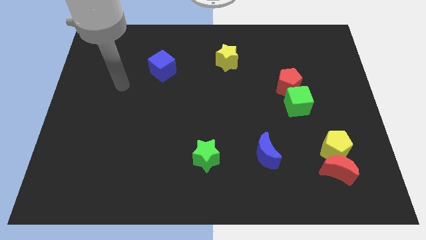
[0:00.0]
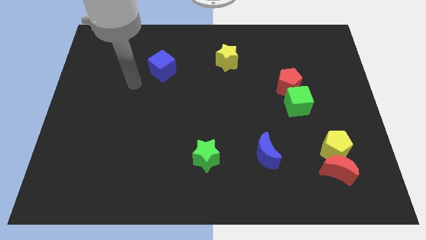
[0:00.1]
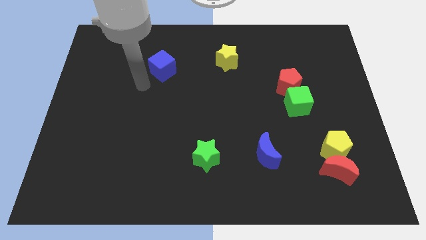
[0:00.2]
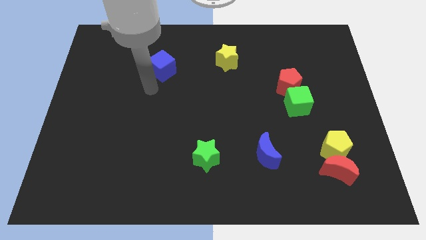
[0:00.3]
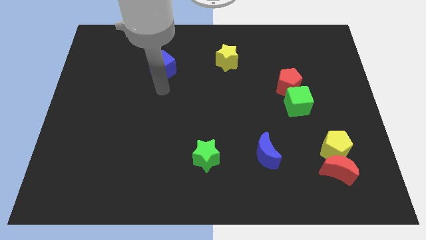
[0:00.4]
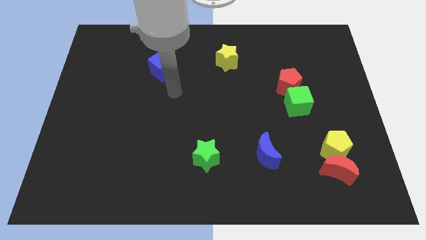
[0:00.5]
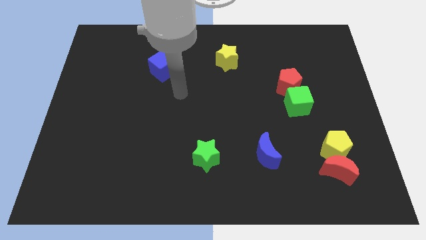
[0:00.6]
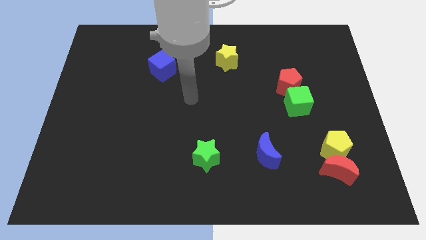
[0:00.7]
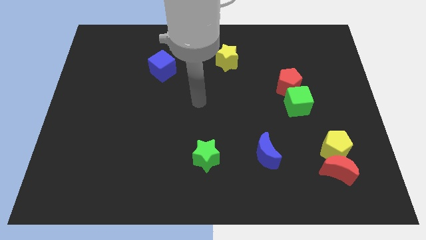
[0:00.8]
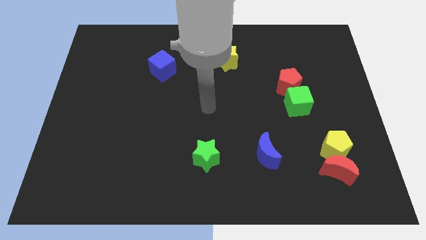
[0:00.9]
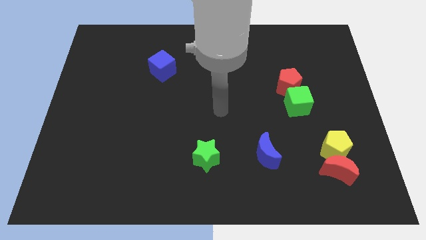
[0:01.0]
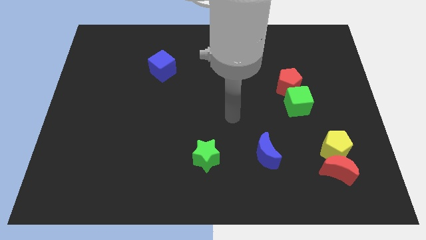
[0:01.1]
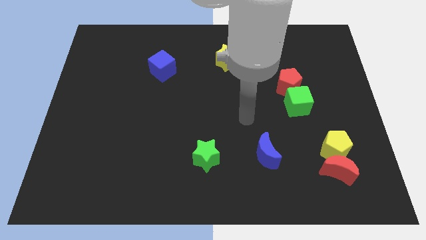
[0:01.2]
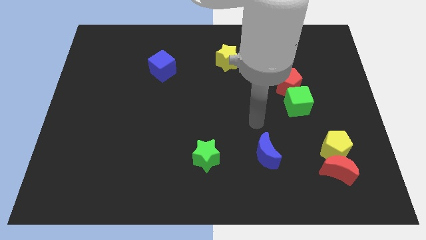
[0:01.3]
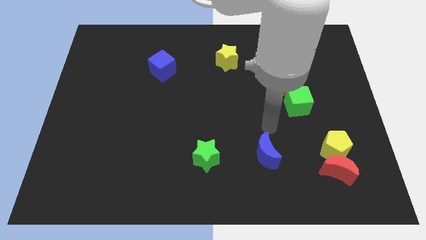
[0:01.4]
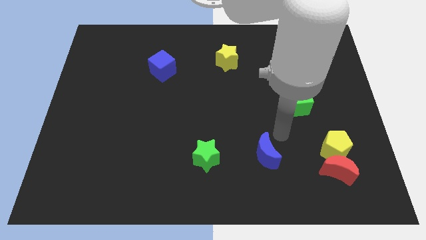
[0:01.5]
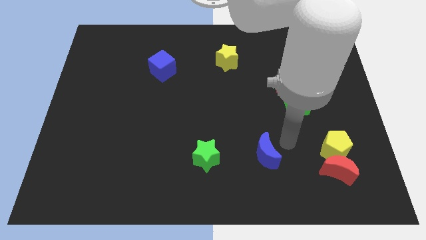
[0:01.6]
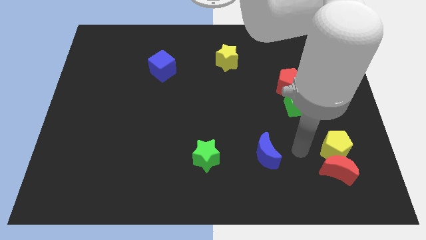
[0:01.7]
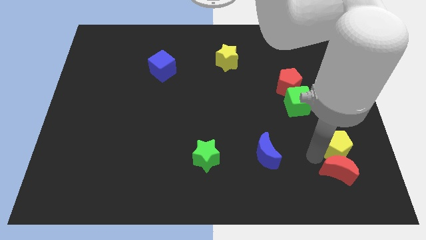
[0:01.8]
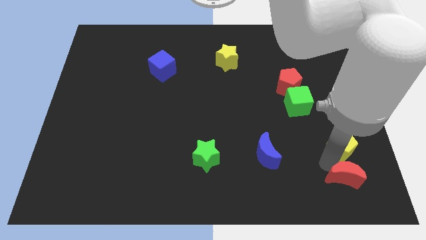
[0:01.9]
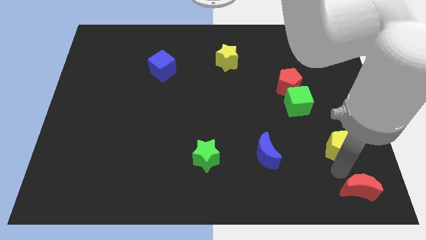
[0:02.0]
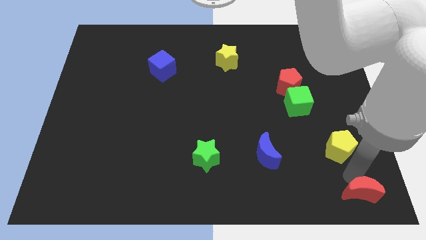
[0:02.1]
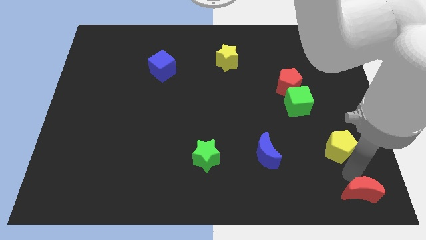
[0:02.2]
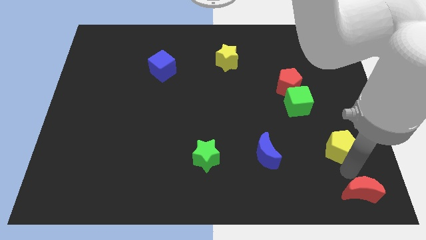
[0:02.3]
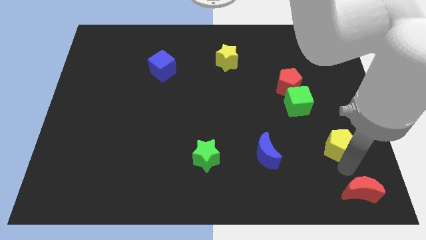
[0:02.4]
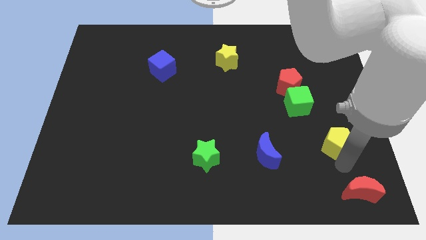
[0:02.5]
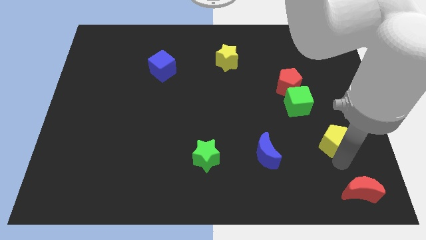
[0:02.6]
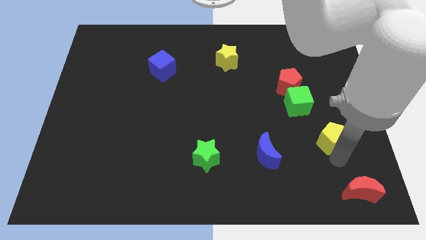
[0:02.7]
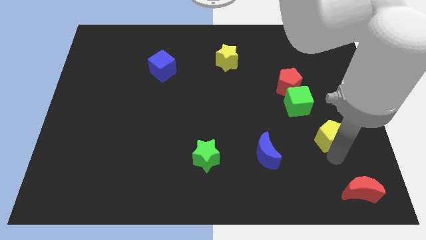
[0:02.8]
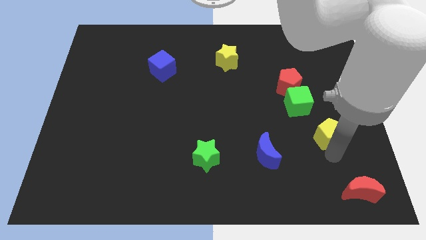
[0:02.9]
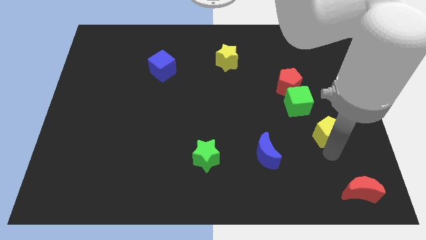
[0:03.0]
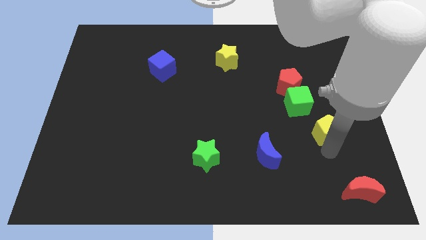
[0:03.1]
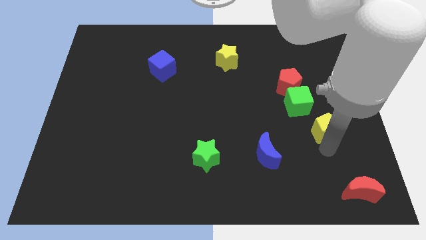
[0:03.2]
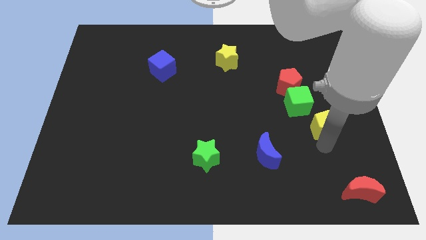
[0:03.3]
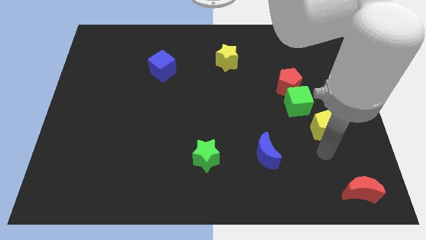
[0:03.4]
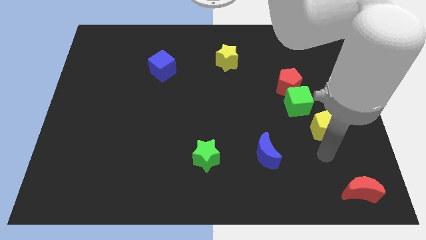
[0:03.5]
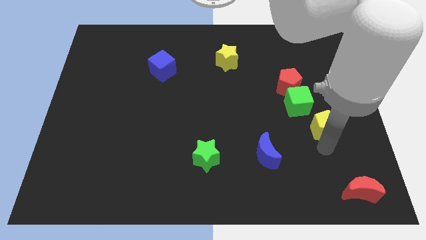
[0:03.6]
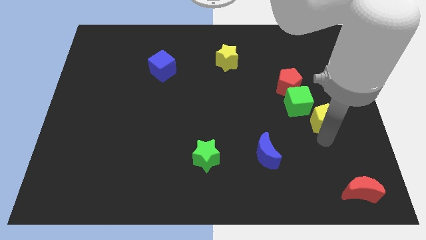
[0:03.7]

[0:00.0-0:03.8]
move the yellow pentagon slightly up

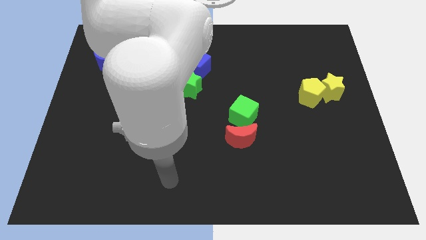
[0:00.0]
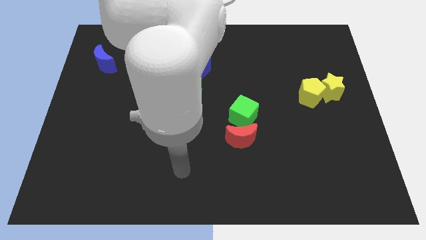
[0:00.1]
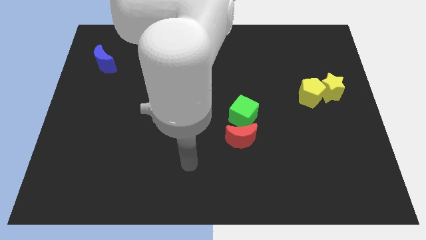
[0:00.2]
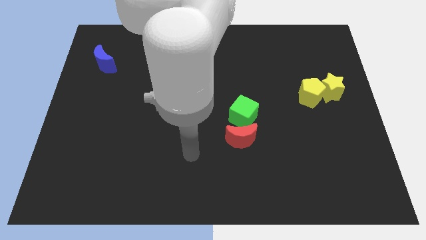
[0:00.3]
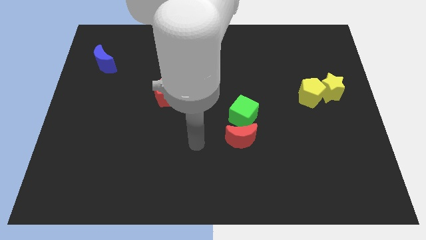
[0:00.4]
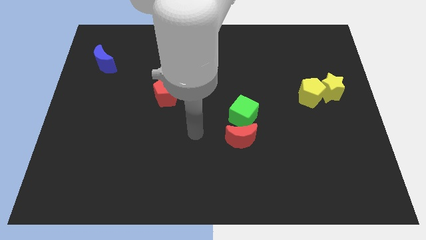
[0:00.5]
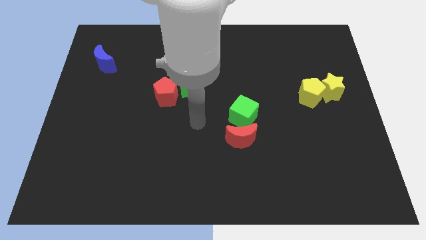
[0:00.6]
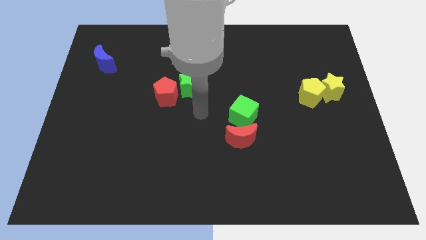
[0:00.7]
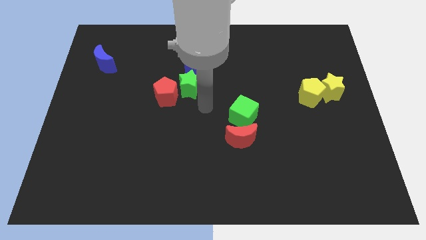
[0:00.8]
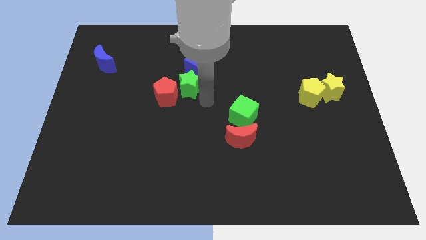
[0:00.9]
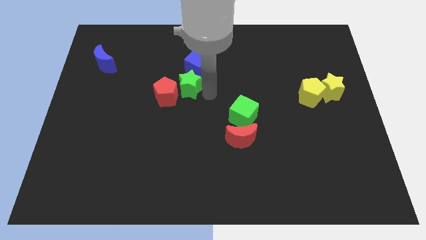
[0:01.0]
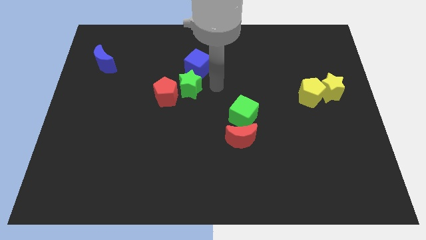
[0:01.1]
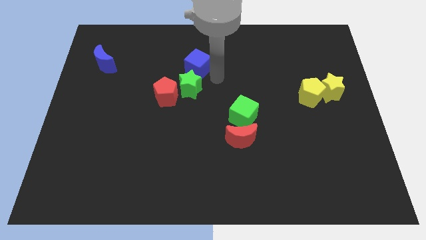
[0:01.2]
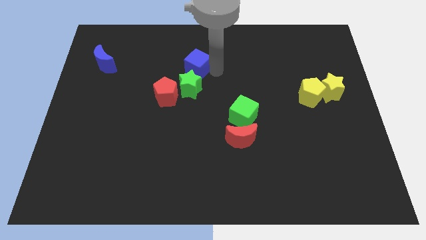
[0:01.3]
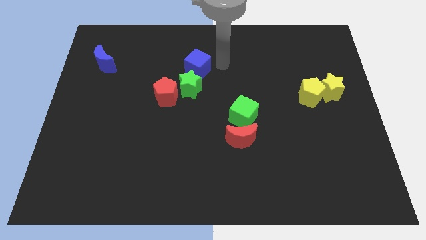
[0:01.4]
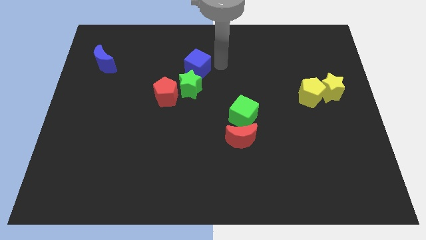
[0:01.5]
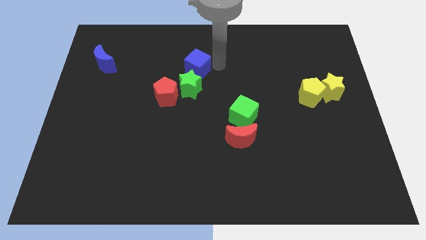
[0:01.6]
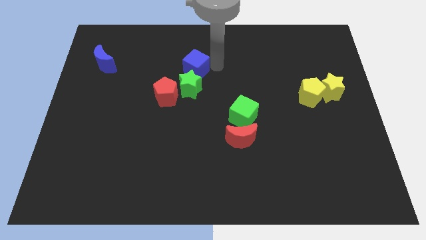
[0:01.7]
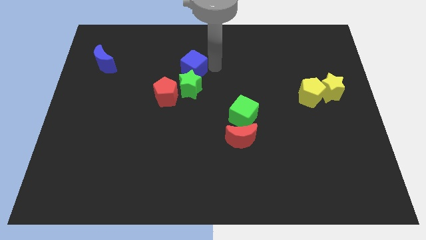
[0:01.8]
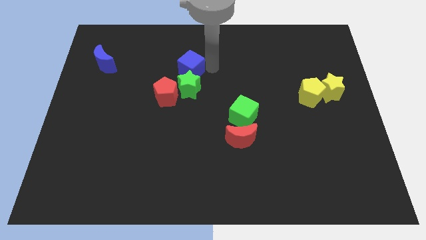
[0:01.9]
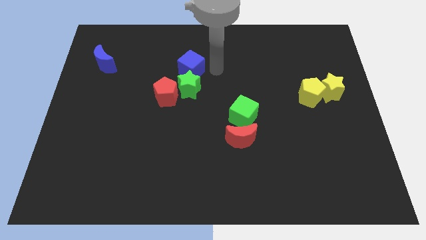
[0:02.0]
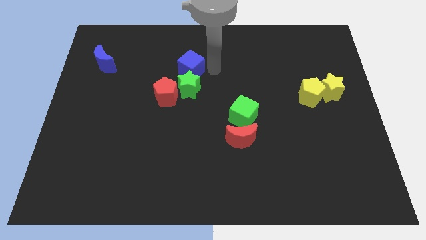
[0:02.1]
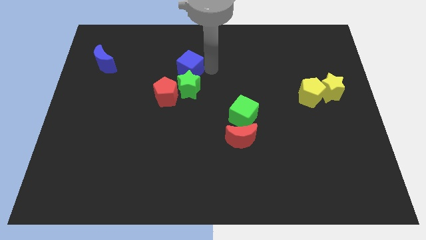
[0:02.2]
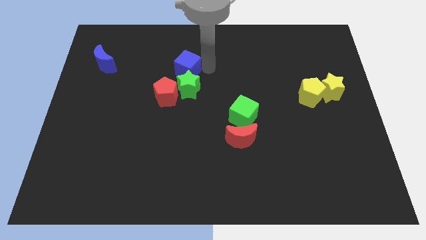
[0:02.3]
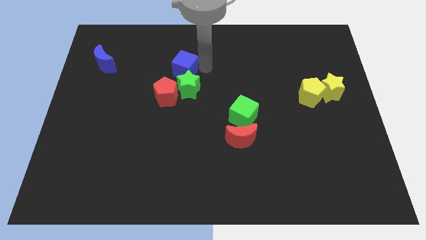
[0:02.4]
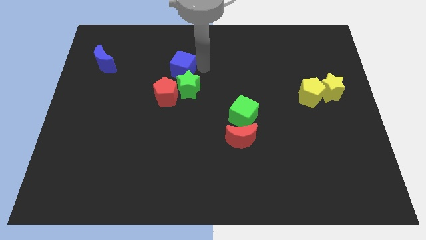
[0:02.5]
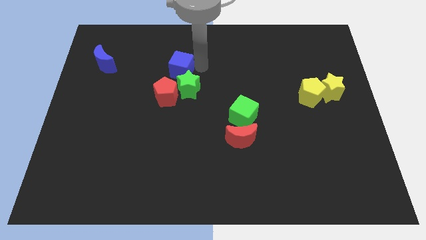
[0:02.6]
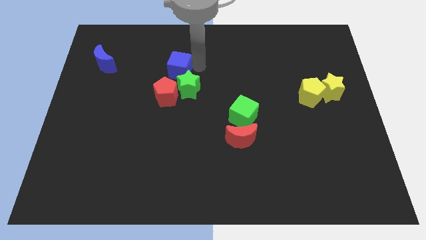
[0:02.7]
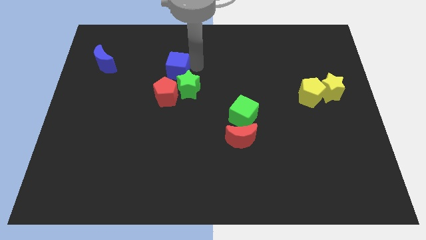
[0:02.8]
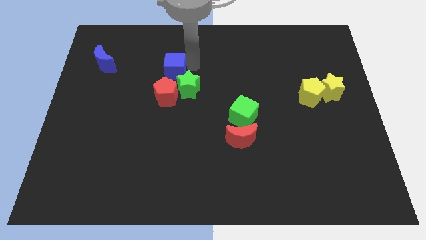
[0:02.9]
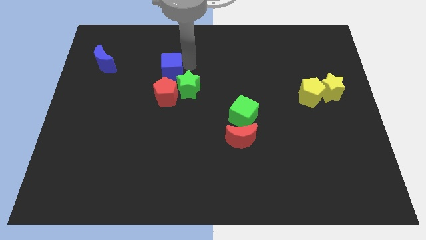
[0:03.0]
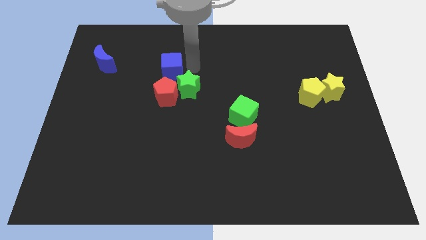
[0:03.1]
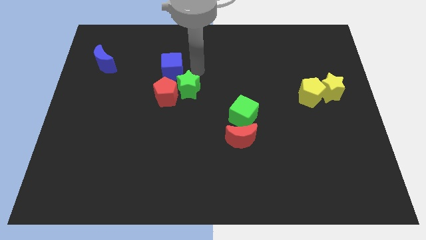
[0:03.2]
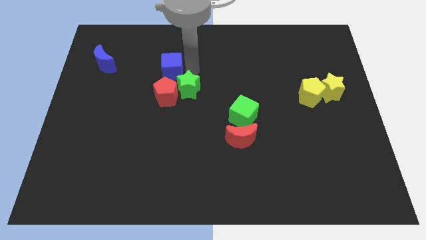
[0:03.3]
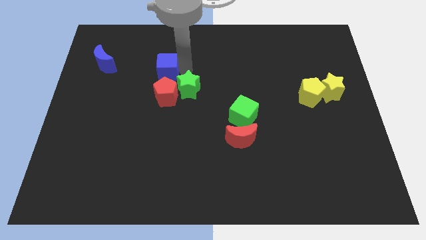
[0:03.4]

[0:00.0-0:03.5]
move the blue cube a little bit left

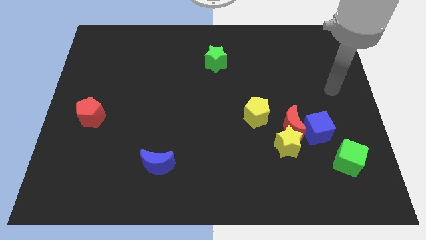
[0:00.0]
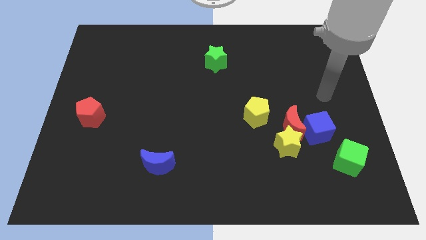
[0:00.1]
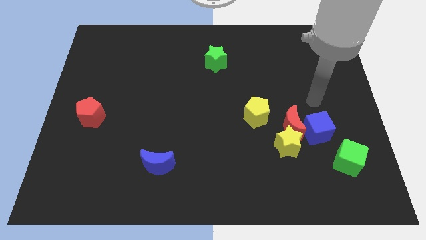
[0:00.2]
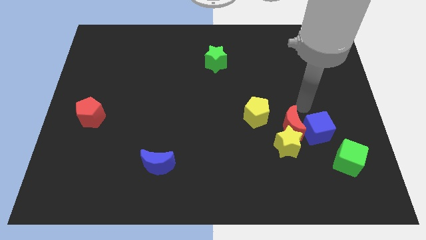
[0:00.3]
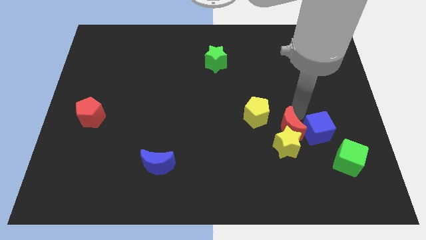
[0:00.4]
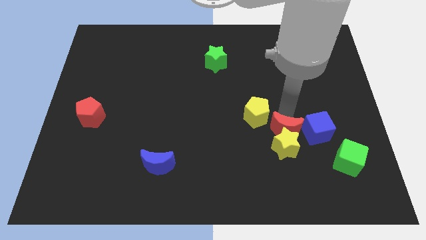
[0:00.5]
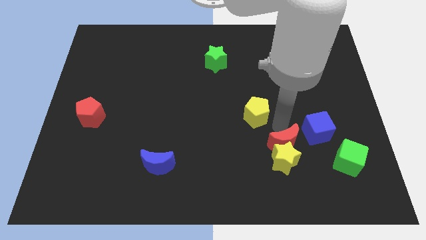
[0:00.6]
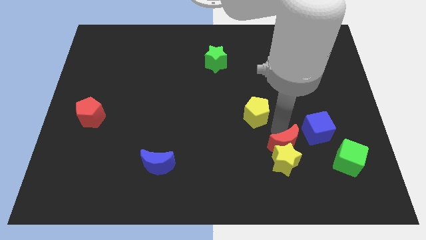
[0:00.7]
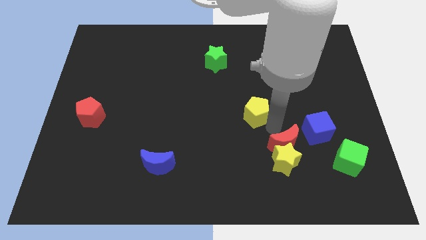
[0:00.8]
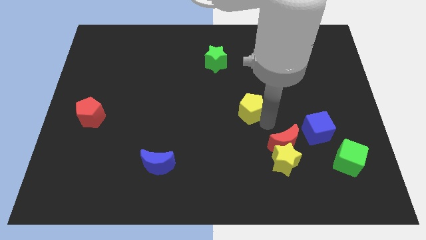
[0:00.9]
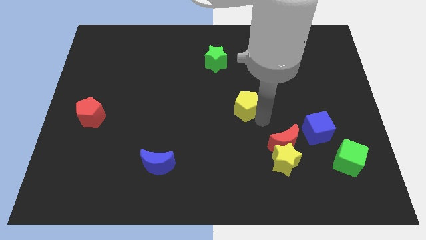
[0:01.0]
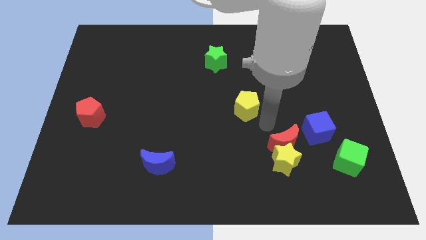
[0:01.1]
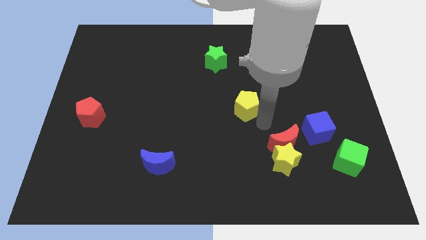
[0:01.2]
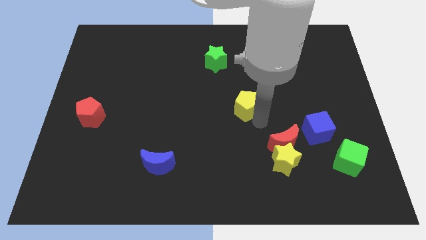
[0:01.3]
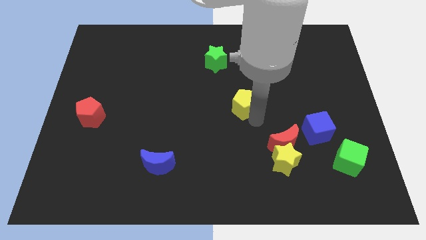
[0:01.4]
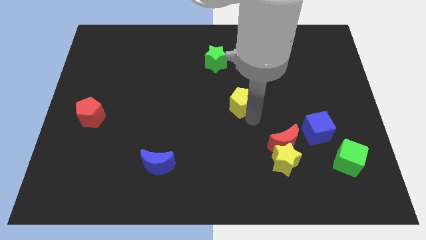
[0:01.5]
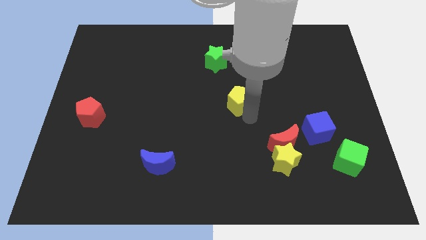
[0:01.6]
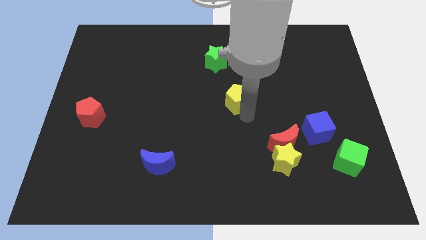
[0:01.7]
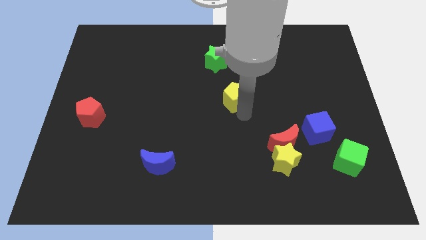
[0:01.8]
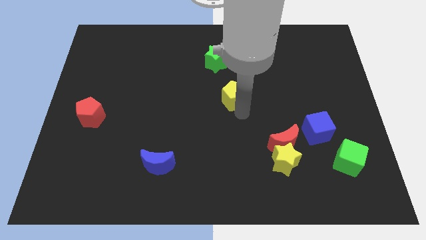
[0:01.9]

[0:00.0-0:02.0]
move the yellow pentagon a little upwards and to the left diagonally
